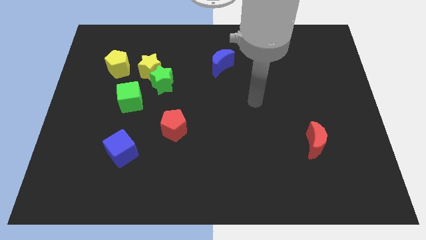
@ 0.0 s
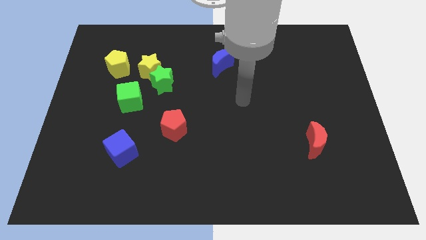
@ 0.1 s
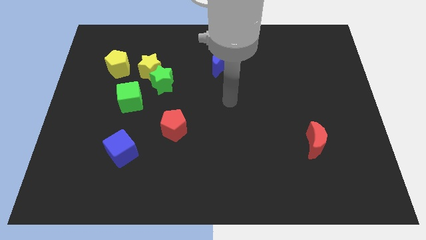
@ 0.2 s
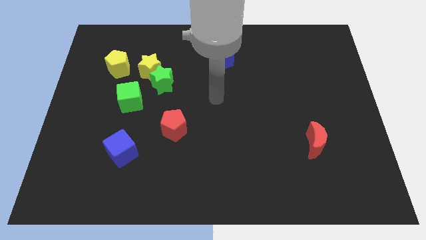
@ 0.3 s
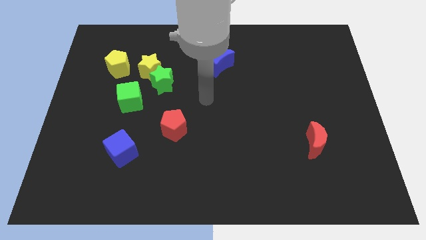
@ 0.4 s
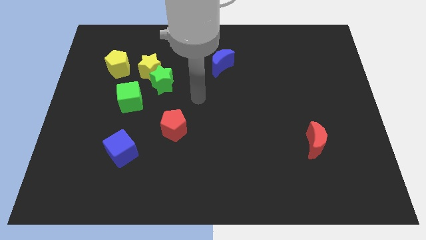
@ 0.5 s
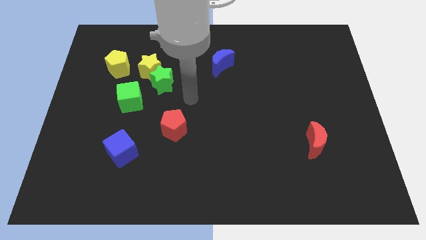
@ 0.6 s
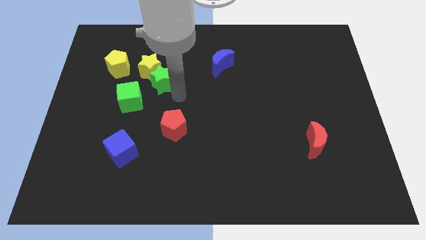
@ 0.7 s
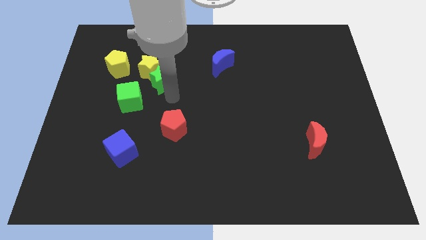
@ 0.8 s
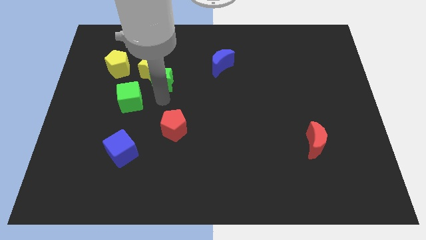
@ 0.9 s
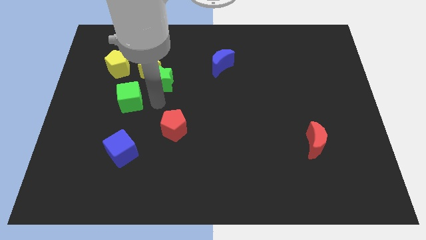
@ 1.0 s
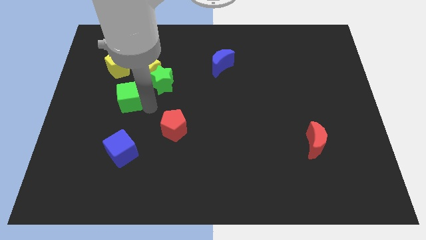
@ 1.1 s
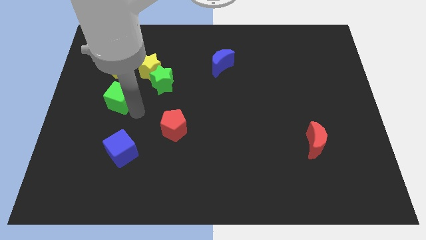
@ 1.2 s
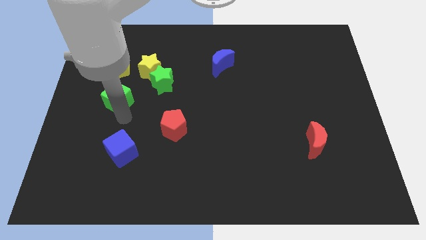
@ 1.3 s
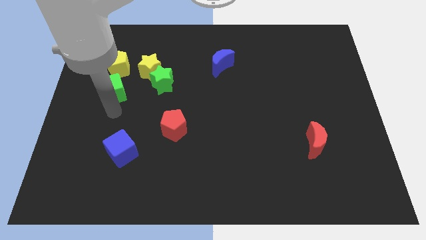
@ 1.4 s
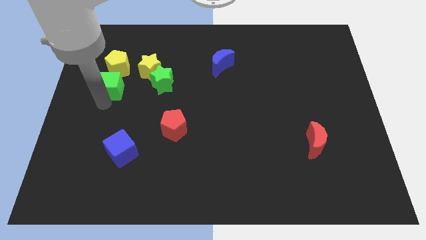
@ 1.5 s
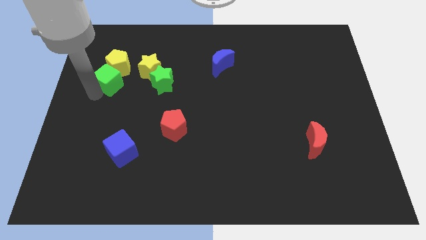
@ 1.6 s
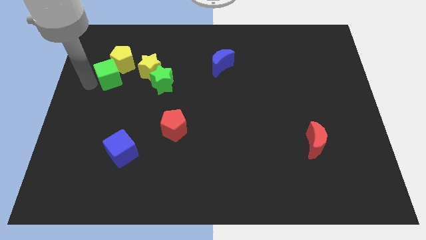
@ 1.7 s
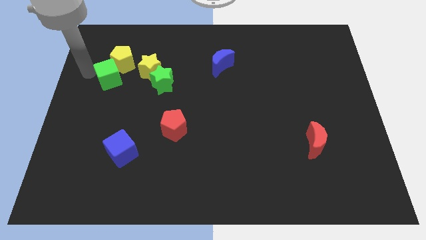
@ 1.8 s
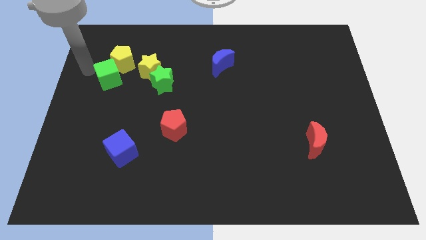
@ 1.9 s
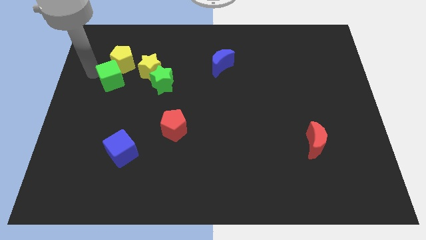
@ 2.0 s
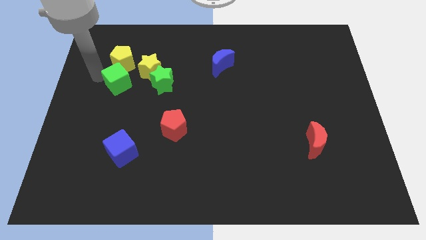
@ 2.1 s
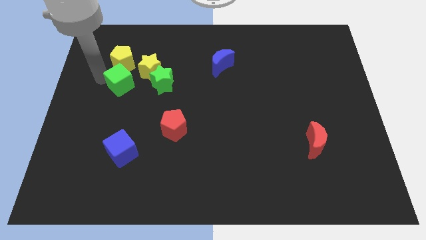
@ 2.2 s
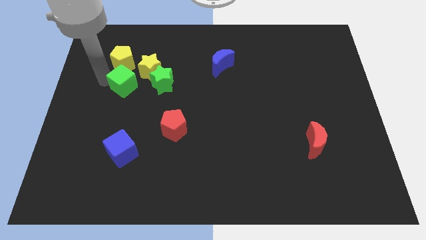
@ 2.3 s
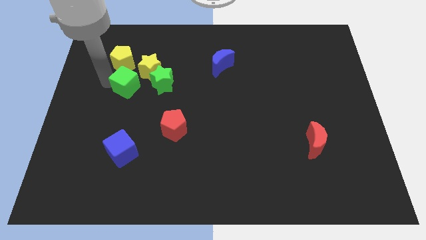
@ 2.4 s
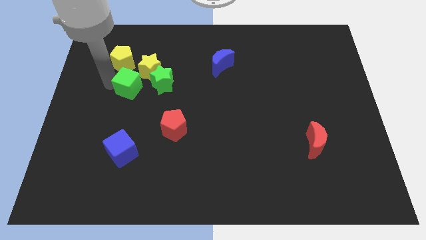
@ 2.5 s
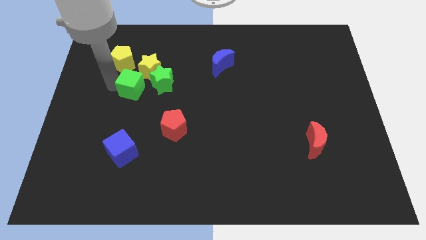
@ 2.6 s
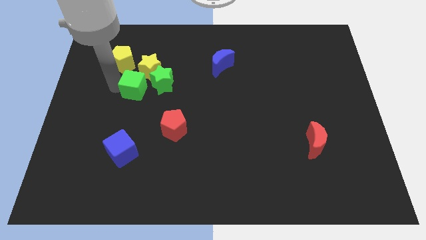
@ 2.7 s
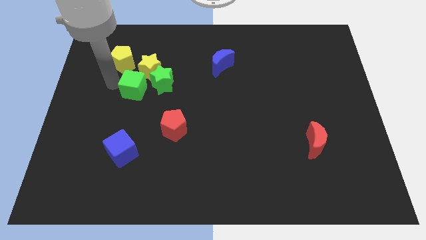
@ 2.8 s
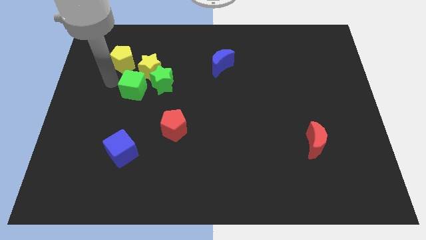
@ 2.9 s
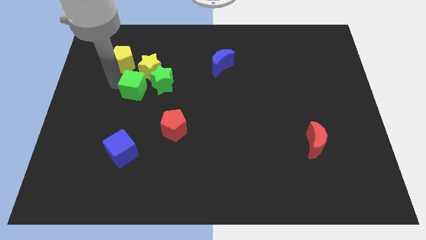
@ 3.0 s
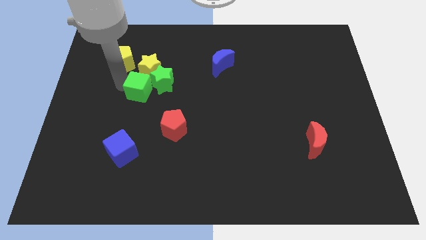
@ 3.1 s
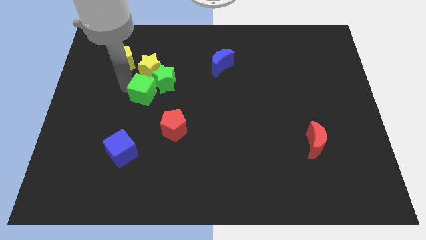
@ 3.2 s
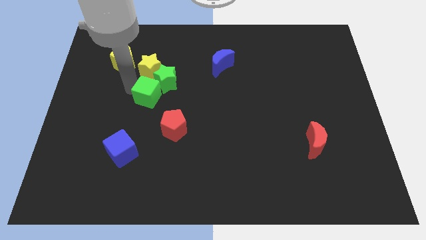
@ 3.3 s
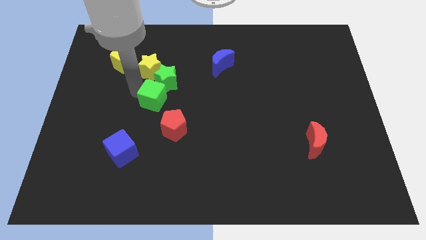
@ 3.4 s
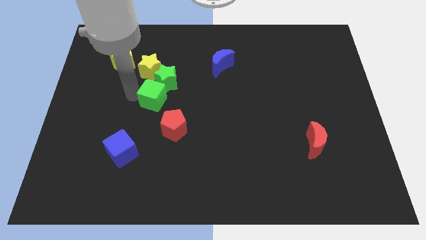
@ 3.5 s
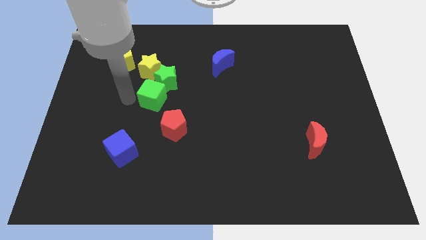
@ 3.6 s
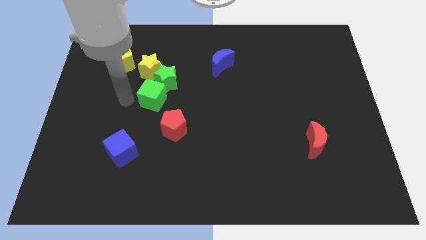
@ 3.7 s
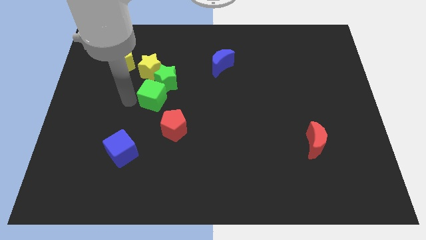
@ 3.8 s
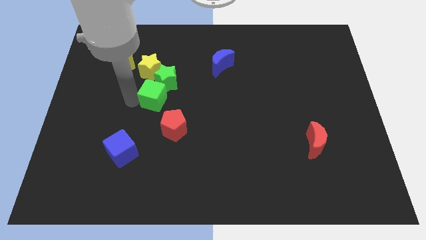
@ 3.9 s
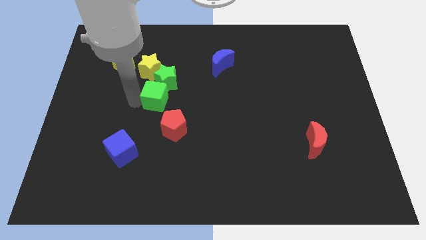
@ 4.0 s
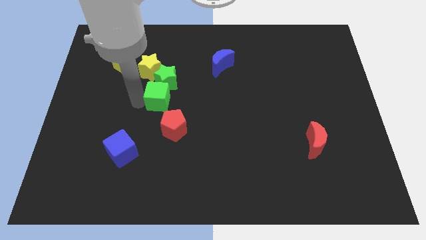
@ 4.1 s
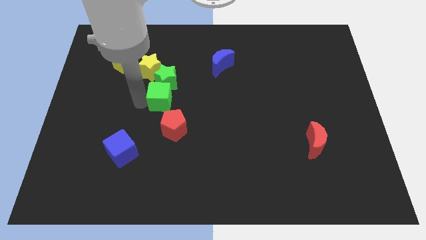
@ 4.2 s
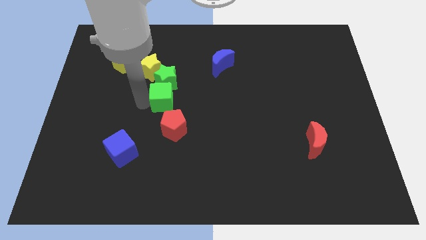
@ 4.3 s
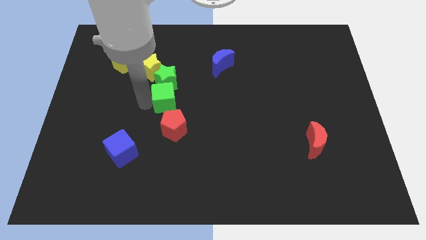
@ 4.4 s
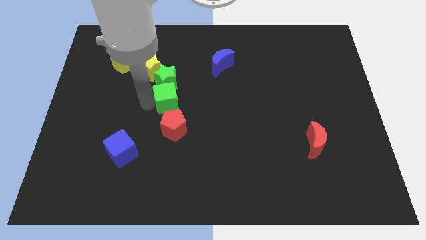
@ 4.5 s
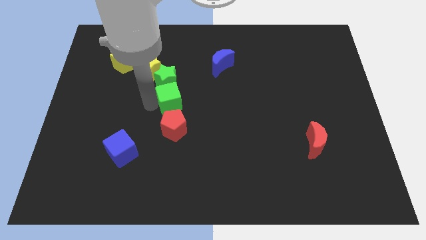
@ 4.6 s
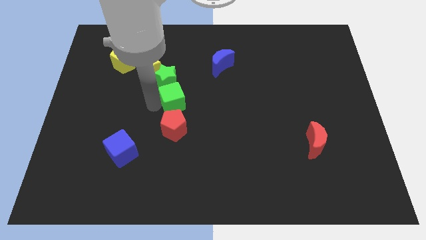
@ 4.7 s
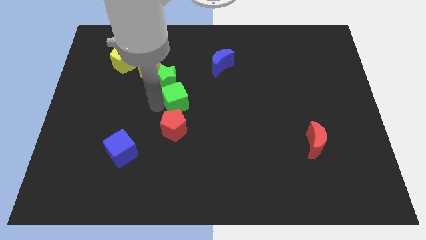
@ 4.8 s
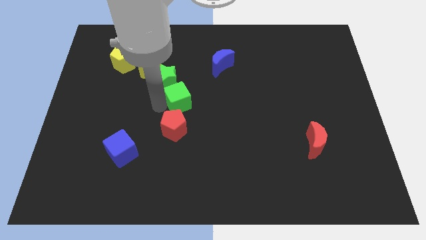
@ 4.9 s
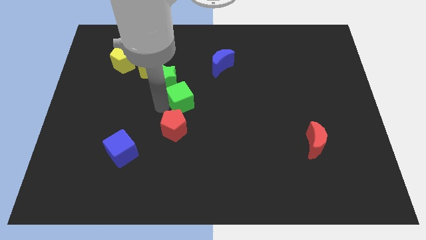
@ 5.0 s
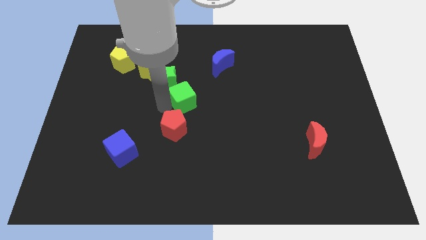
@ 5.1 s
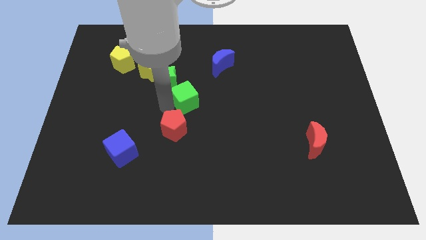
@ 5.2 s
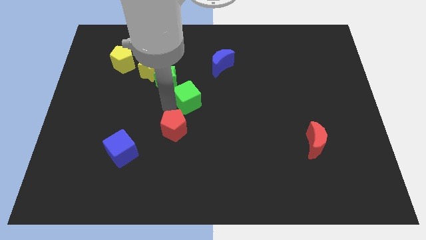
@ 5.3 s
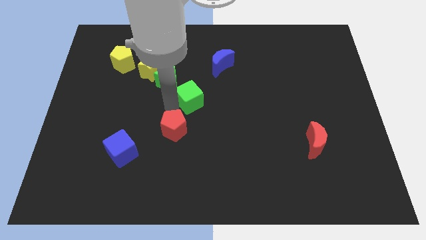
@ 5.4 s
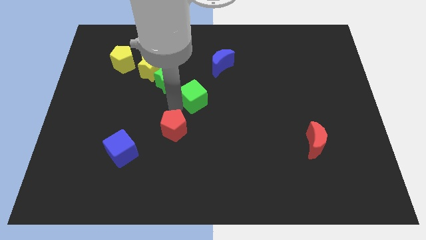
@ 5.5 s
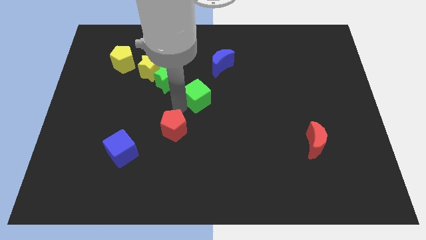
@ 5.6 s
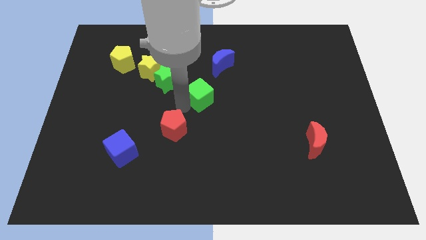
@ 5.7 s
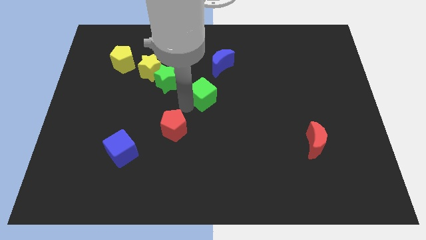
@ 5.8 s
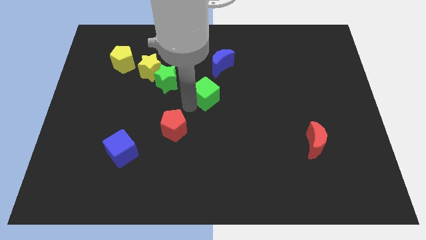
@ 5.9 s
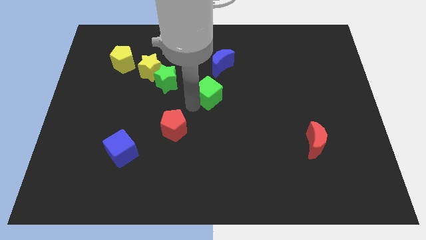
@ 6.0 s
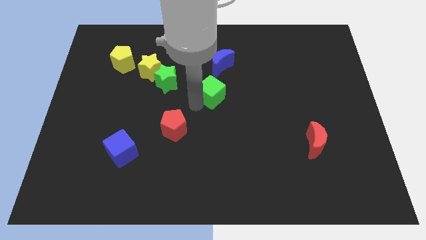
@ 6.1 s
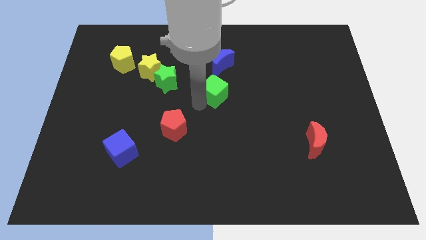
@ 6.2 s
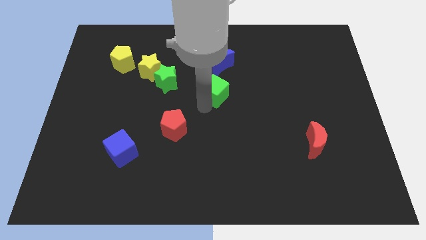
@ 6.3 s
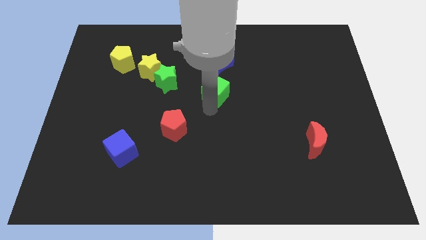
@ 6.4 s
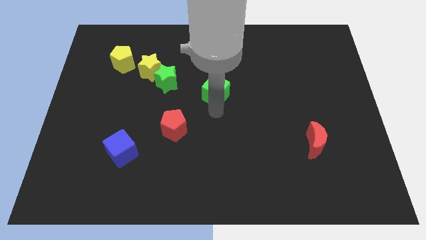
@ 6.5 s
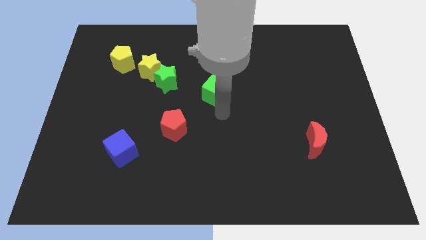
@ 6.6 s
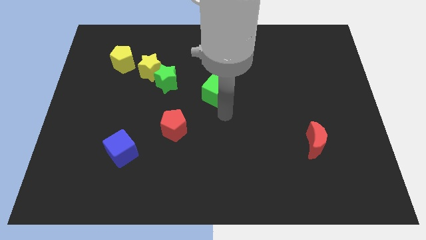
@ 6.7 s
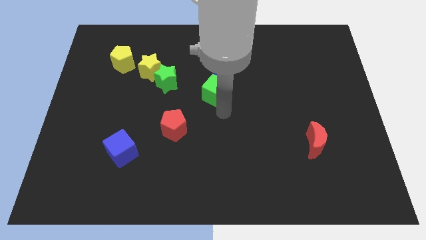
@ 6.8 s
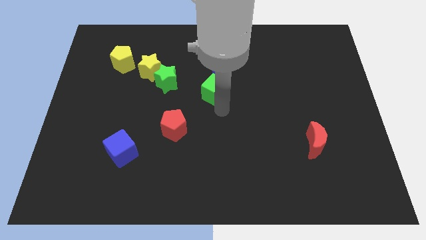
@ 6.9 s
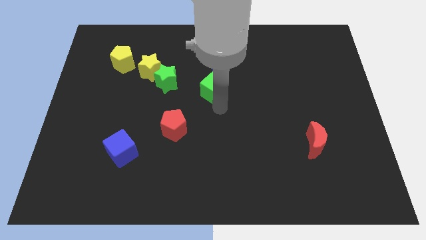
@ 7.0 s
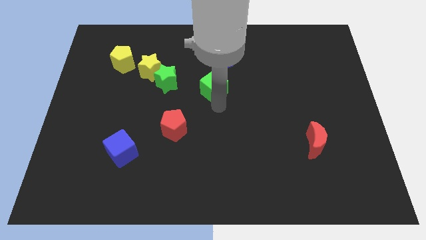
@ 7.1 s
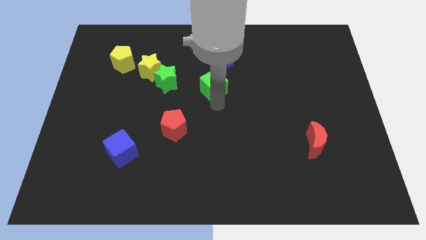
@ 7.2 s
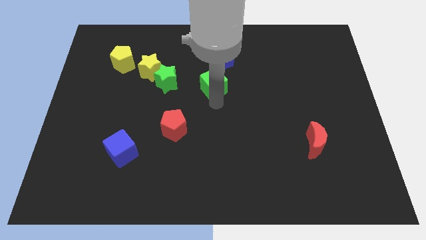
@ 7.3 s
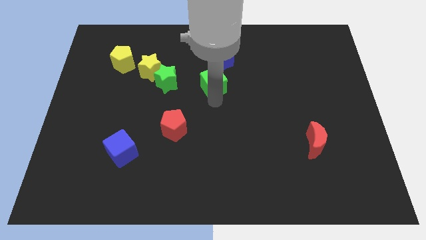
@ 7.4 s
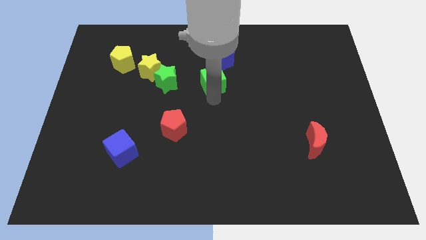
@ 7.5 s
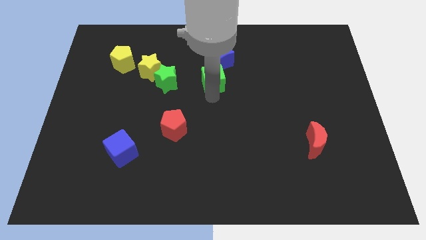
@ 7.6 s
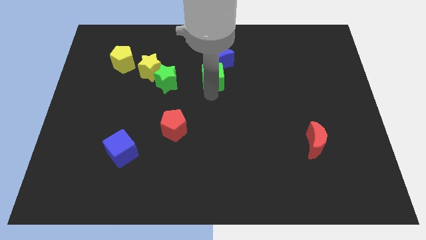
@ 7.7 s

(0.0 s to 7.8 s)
slide the green cube close to the blue moon

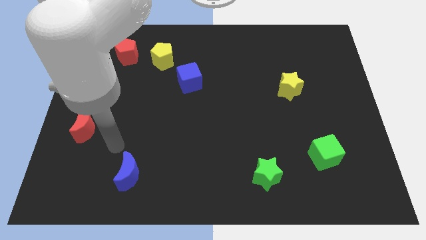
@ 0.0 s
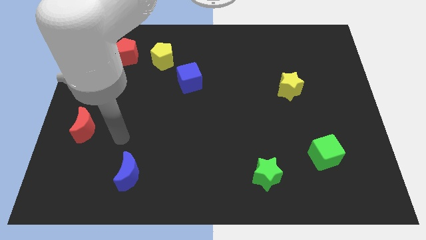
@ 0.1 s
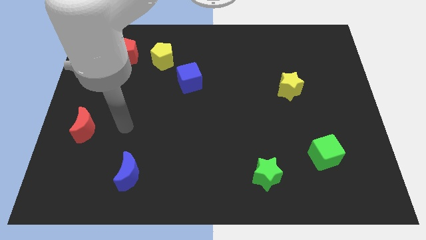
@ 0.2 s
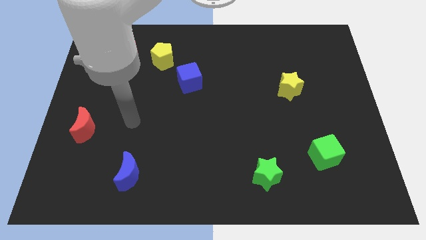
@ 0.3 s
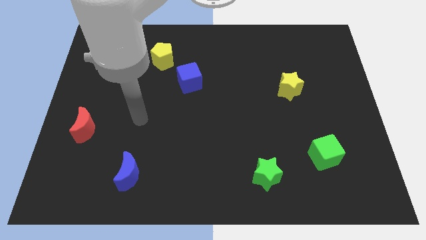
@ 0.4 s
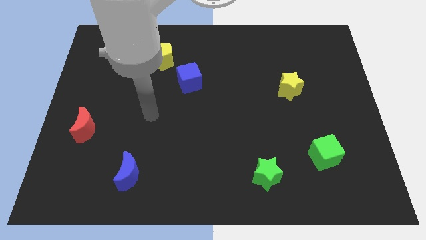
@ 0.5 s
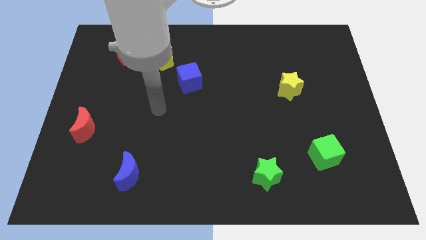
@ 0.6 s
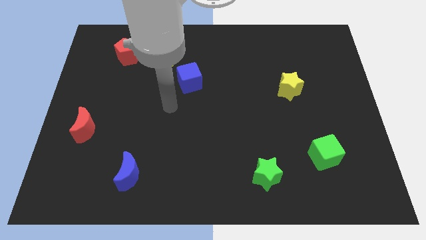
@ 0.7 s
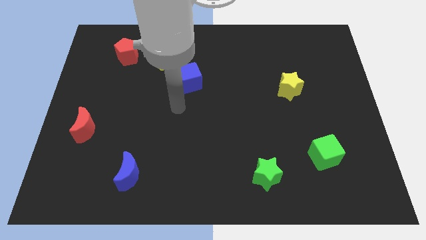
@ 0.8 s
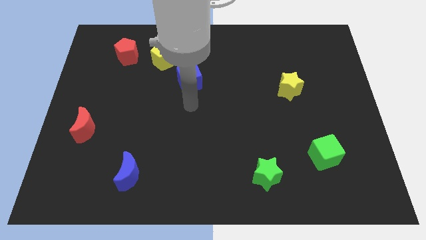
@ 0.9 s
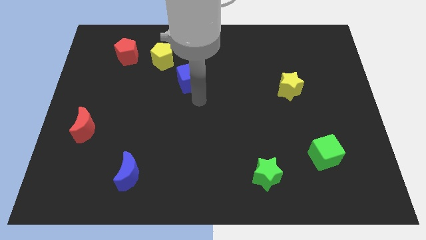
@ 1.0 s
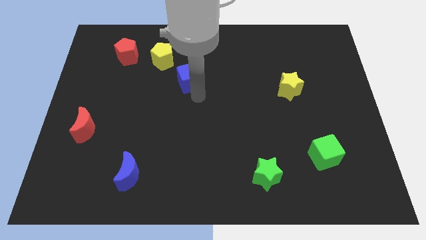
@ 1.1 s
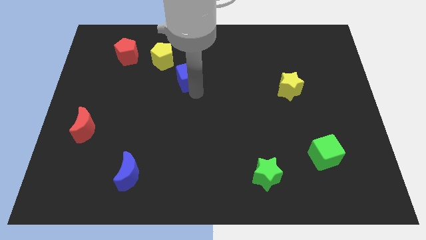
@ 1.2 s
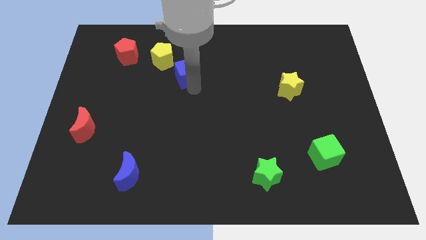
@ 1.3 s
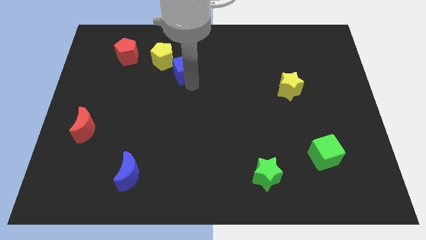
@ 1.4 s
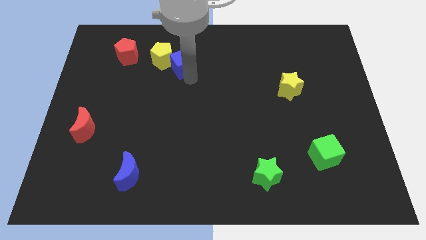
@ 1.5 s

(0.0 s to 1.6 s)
put the blue cube towards the yellow pentagon
